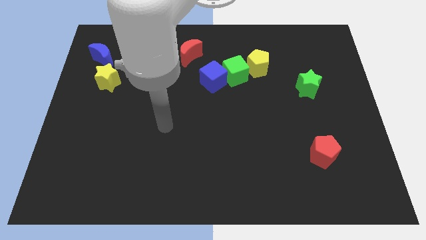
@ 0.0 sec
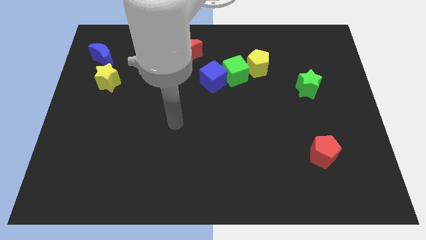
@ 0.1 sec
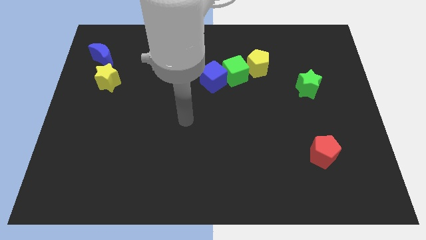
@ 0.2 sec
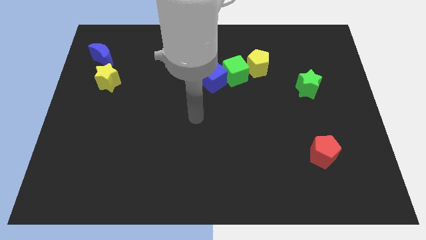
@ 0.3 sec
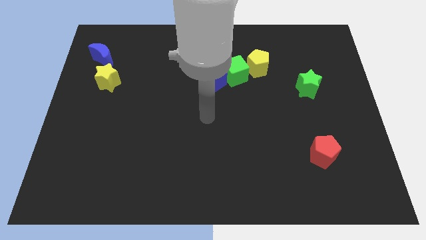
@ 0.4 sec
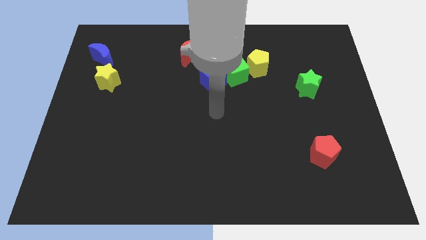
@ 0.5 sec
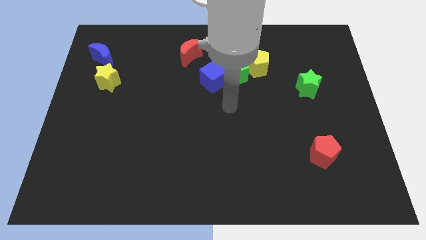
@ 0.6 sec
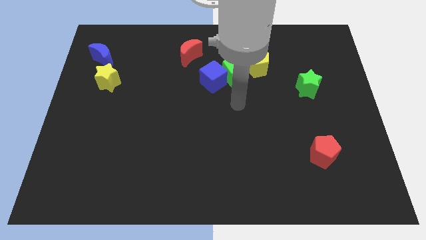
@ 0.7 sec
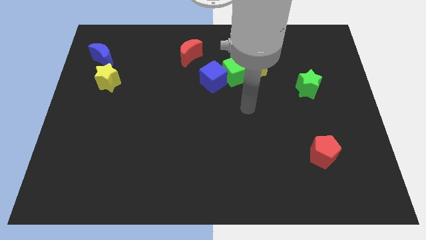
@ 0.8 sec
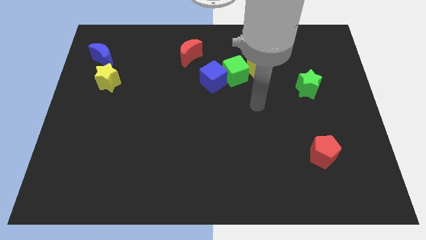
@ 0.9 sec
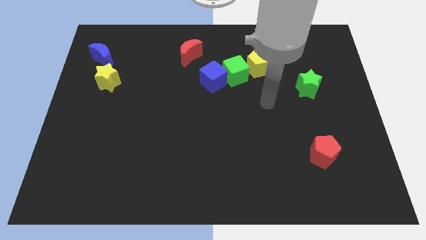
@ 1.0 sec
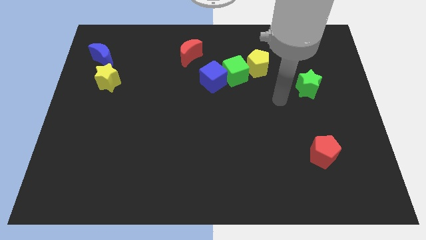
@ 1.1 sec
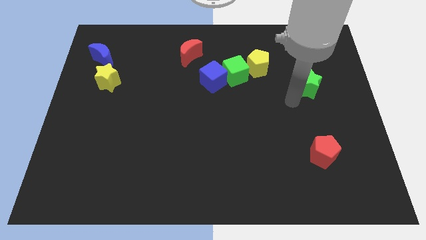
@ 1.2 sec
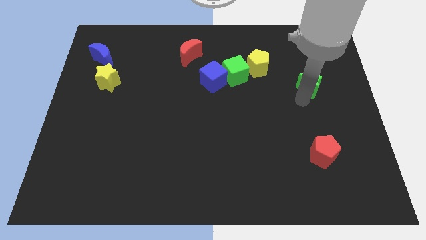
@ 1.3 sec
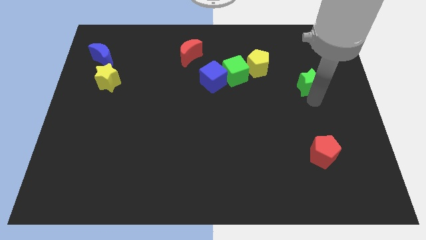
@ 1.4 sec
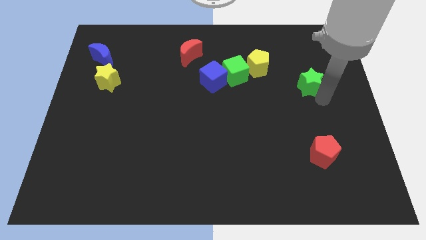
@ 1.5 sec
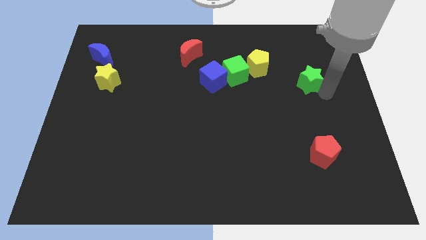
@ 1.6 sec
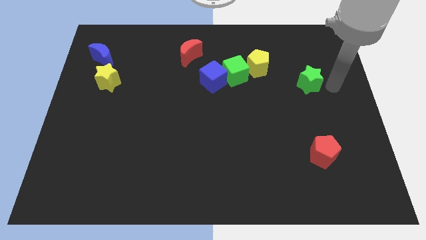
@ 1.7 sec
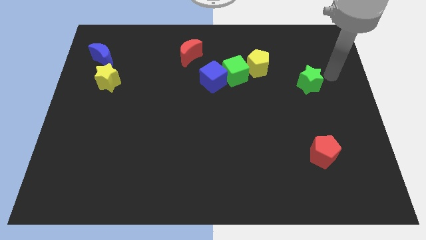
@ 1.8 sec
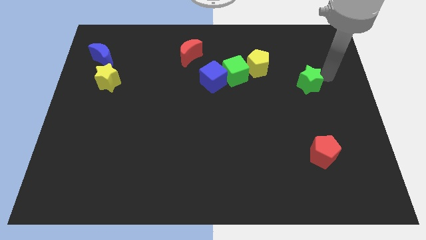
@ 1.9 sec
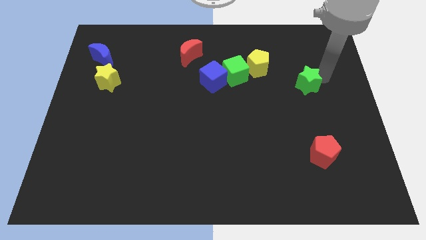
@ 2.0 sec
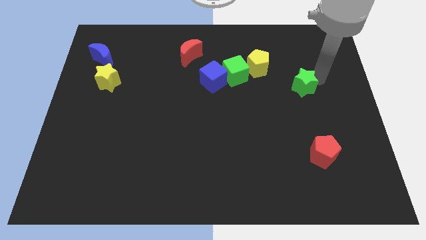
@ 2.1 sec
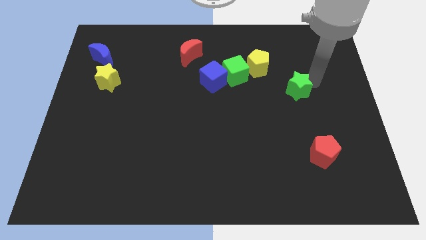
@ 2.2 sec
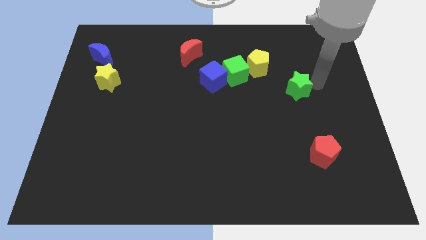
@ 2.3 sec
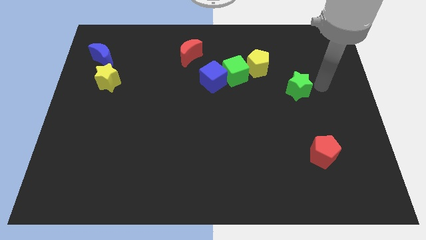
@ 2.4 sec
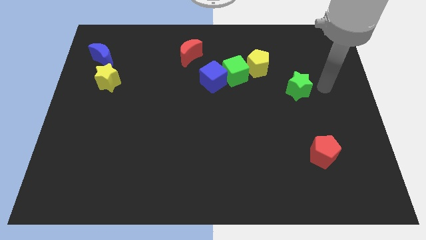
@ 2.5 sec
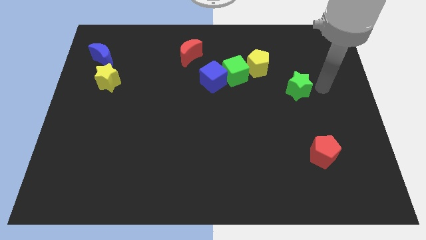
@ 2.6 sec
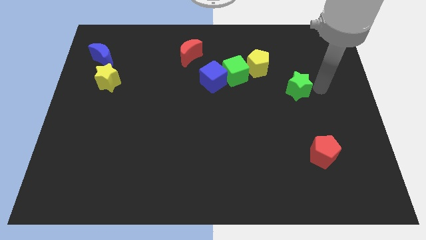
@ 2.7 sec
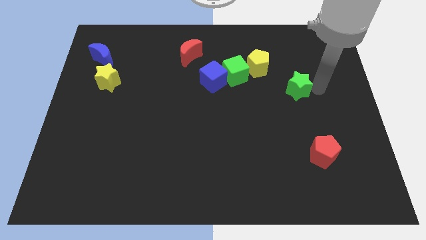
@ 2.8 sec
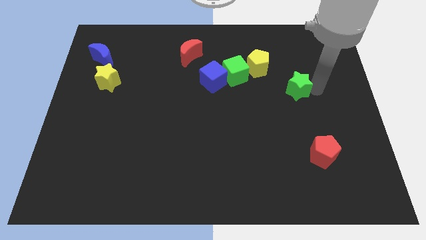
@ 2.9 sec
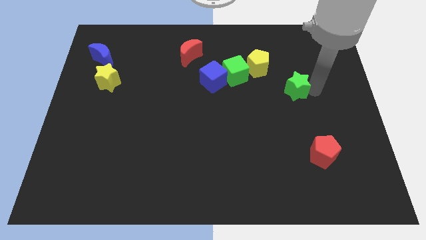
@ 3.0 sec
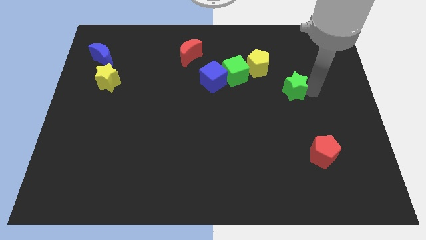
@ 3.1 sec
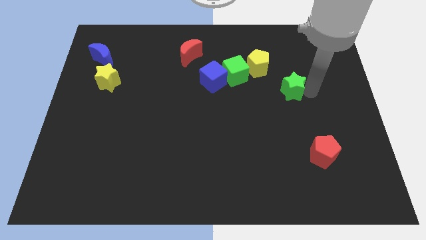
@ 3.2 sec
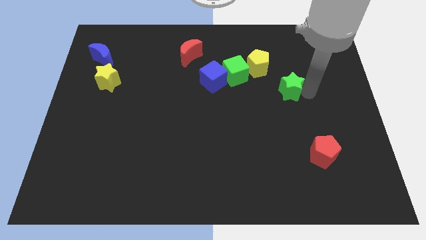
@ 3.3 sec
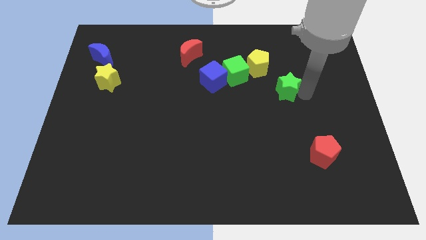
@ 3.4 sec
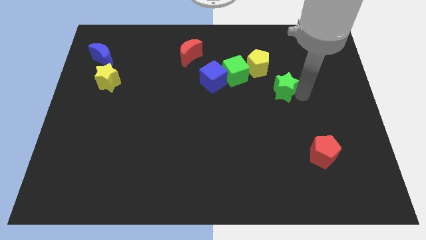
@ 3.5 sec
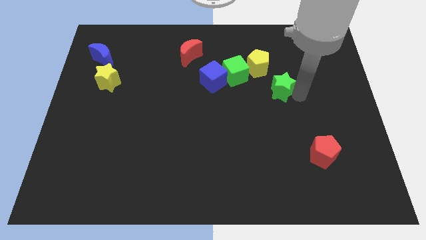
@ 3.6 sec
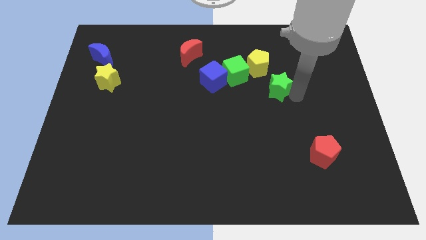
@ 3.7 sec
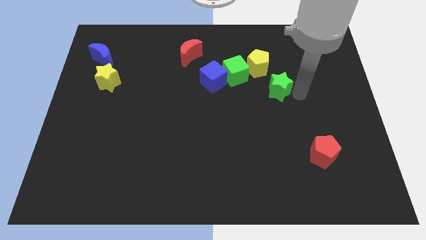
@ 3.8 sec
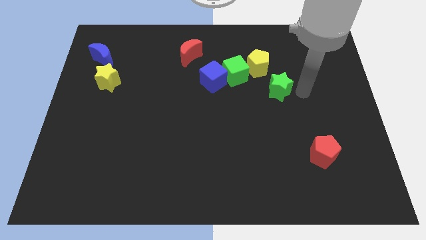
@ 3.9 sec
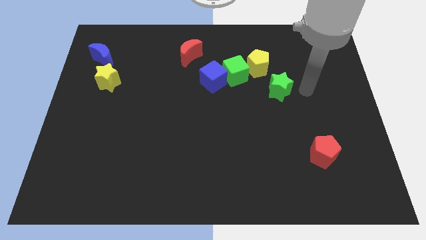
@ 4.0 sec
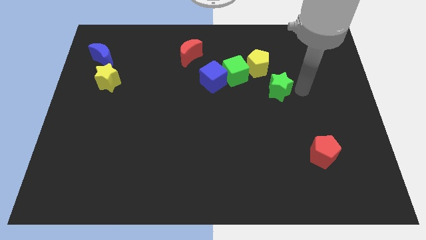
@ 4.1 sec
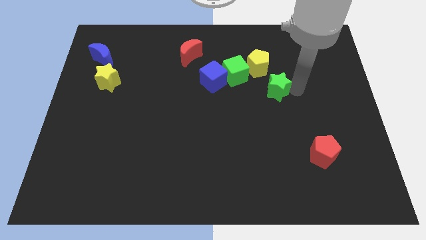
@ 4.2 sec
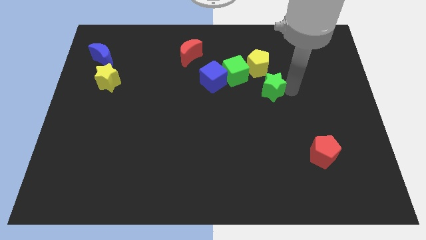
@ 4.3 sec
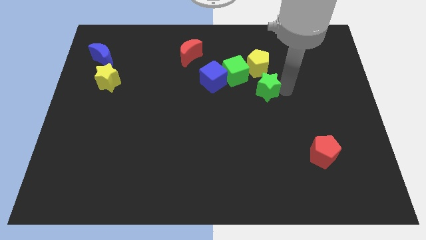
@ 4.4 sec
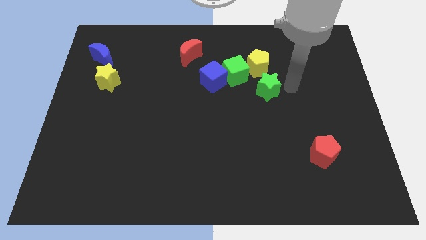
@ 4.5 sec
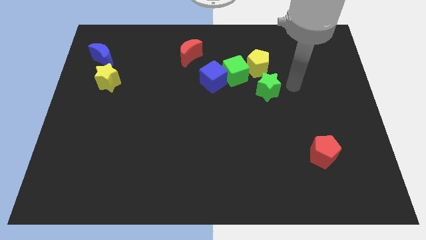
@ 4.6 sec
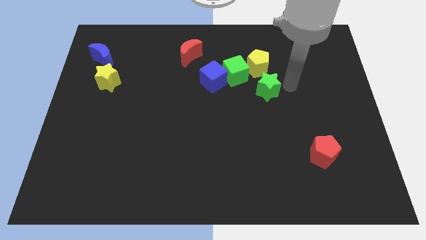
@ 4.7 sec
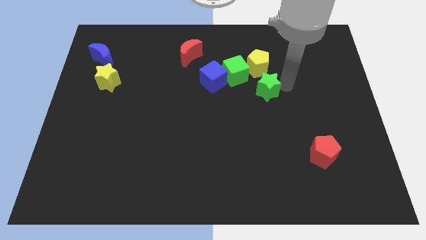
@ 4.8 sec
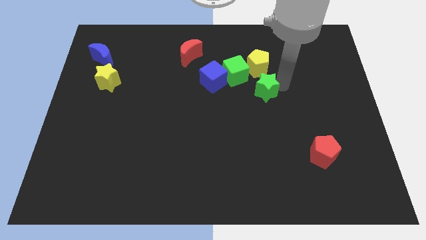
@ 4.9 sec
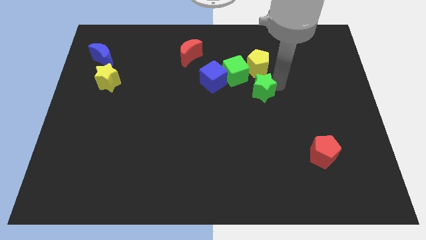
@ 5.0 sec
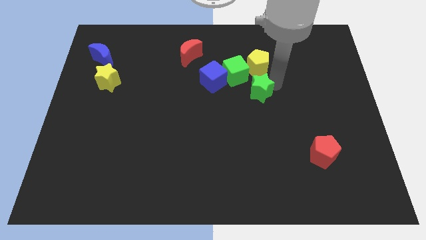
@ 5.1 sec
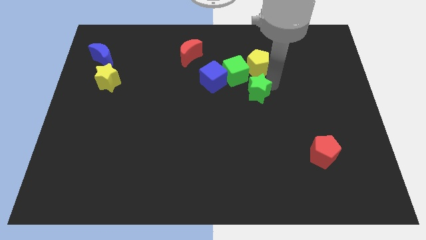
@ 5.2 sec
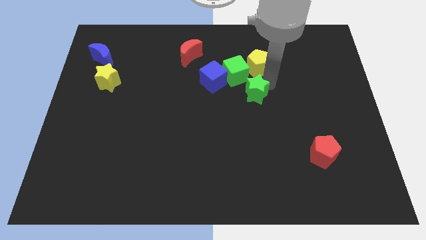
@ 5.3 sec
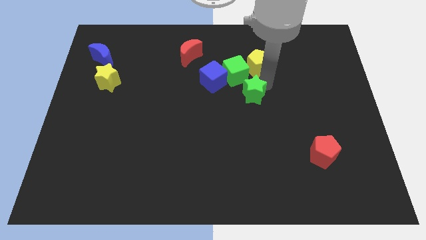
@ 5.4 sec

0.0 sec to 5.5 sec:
move the green star to the bottom right of the blue cube

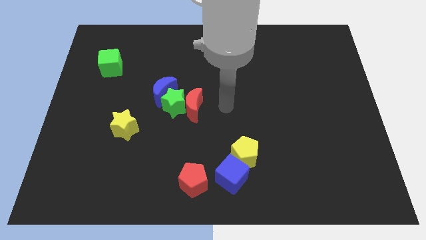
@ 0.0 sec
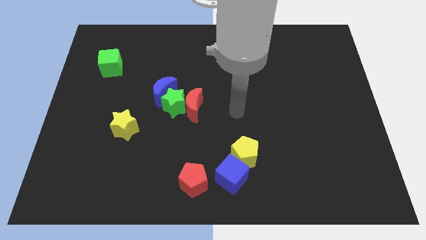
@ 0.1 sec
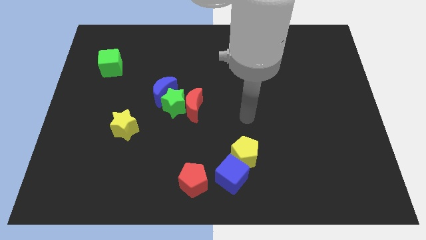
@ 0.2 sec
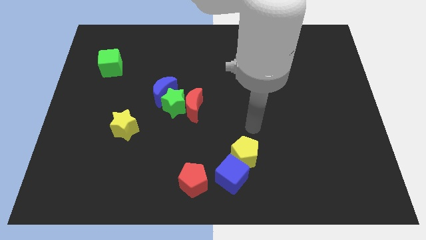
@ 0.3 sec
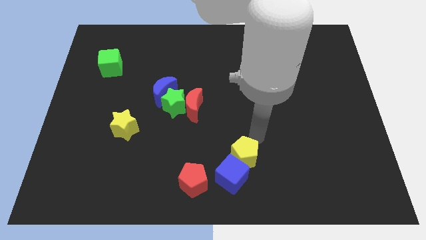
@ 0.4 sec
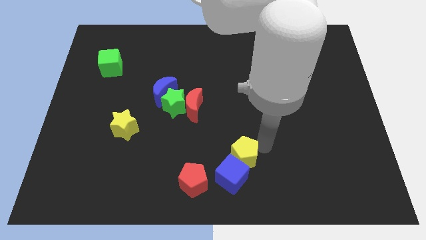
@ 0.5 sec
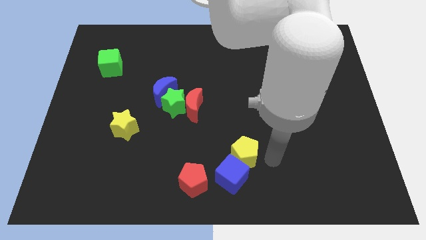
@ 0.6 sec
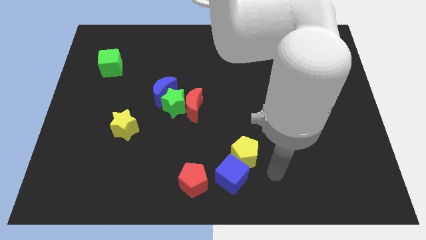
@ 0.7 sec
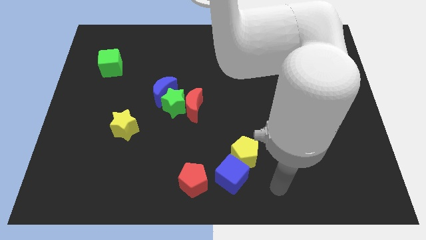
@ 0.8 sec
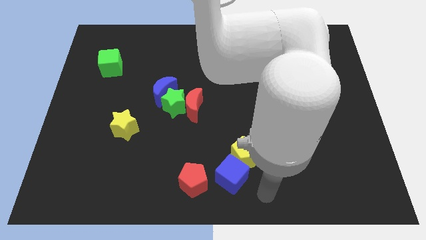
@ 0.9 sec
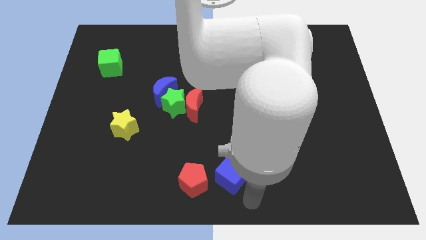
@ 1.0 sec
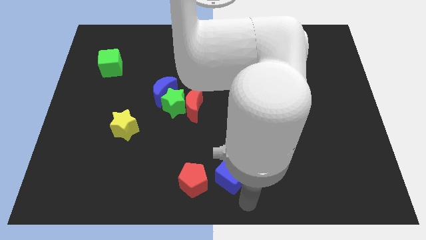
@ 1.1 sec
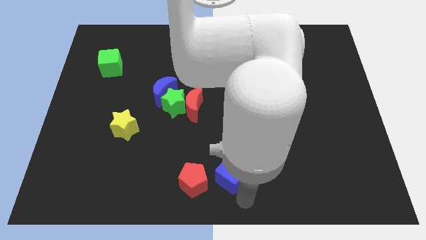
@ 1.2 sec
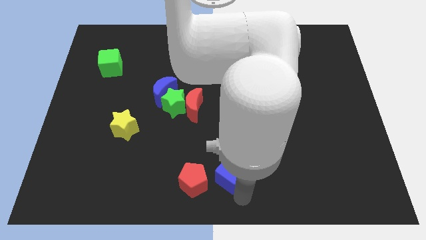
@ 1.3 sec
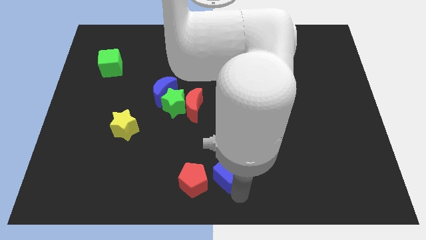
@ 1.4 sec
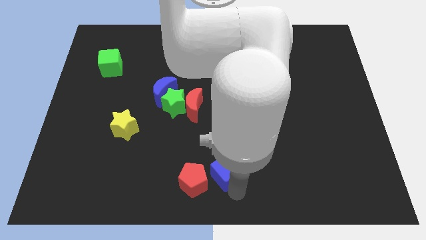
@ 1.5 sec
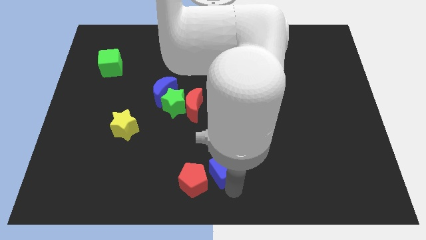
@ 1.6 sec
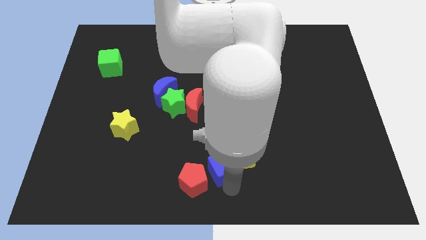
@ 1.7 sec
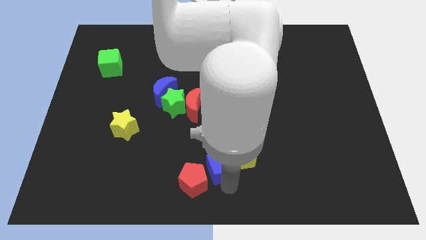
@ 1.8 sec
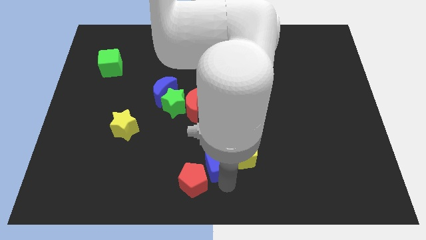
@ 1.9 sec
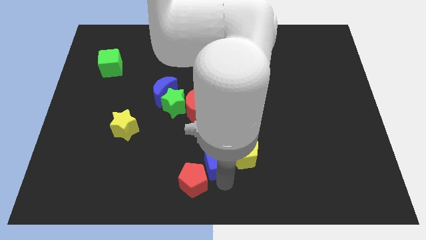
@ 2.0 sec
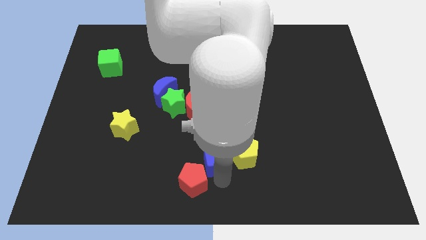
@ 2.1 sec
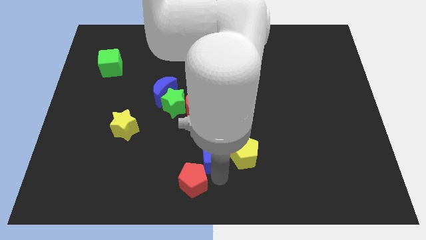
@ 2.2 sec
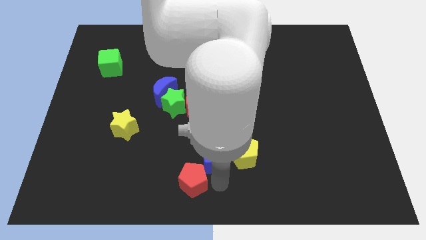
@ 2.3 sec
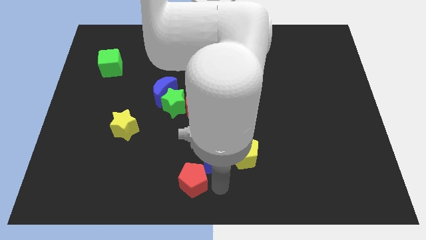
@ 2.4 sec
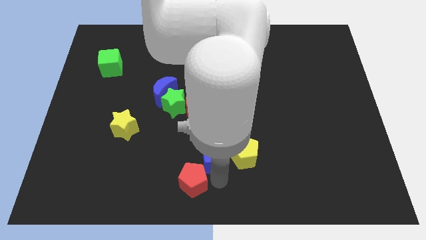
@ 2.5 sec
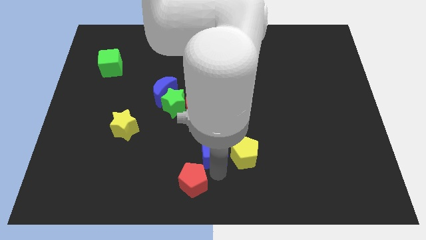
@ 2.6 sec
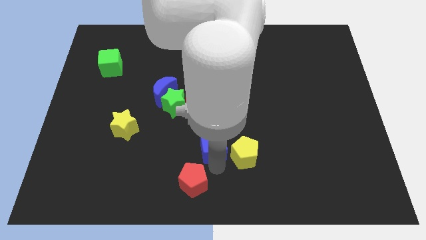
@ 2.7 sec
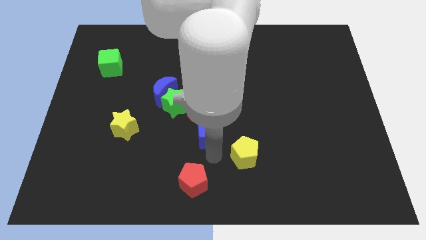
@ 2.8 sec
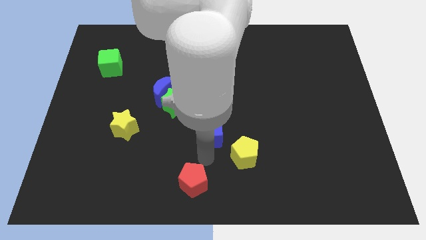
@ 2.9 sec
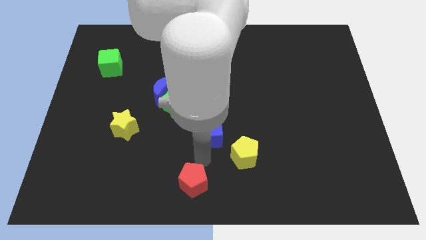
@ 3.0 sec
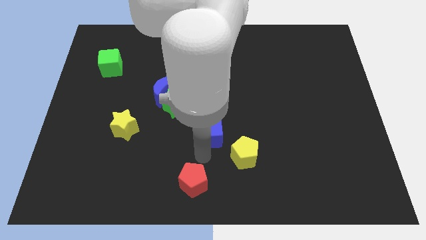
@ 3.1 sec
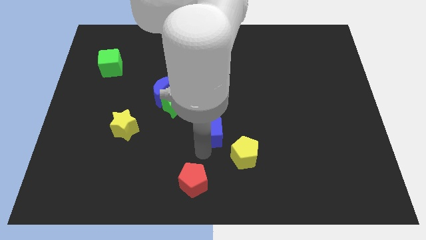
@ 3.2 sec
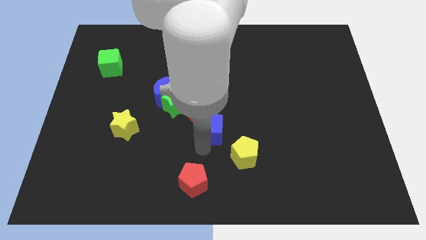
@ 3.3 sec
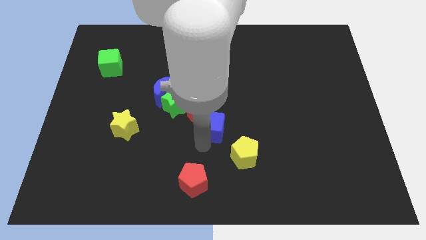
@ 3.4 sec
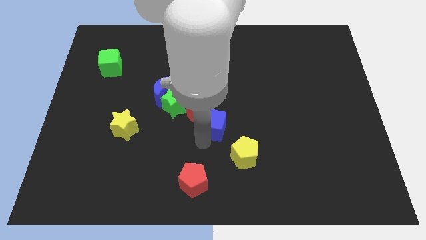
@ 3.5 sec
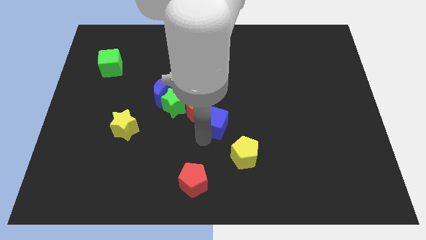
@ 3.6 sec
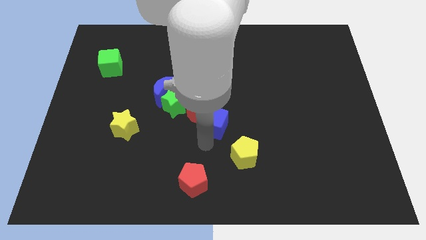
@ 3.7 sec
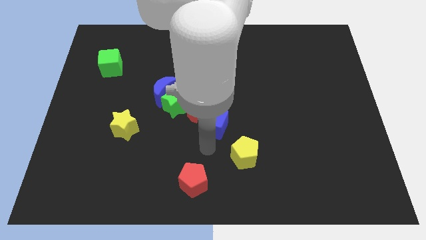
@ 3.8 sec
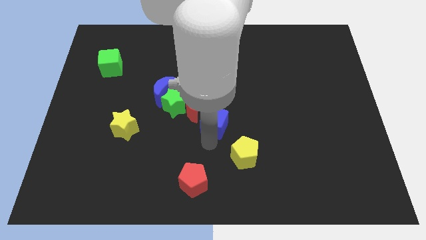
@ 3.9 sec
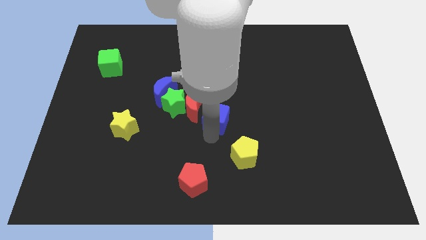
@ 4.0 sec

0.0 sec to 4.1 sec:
put the blue cube to the right side of the green star
